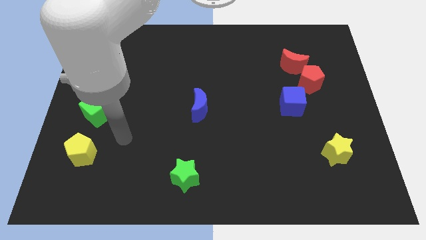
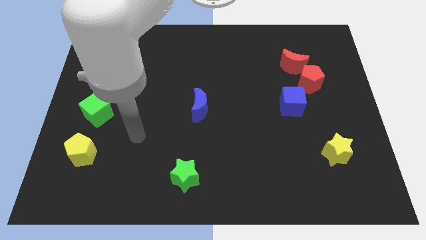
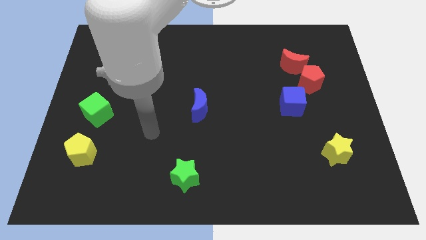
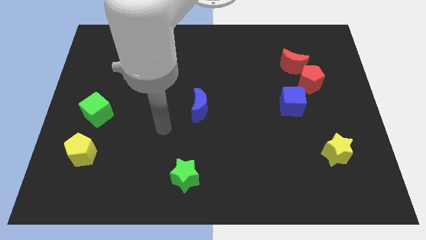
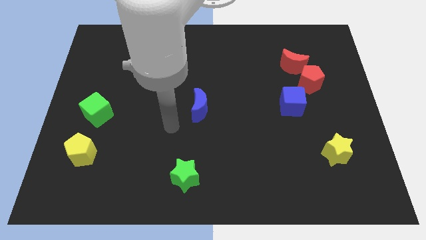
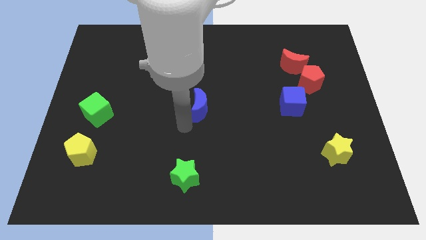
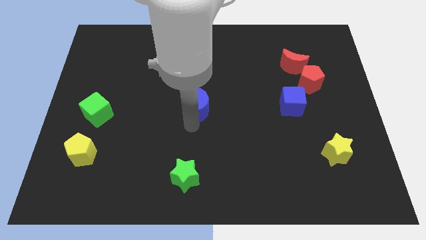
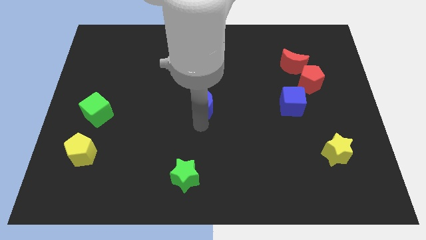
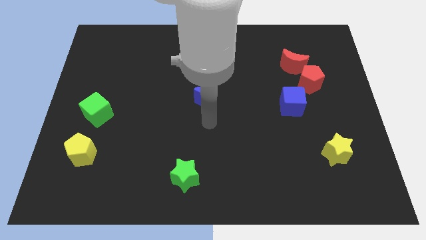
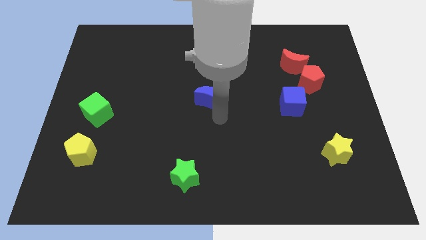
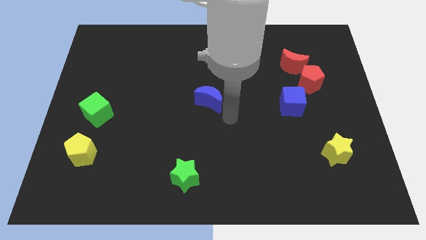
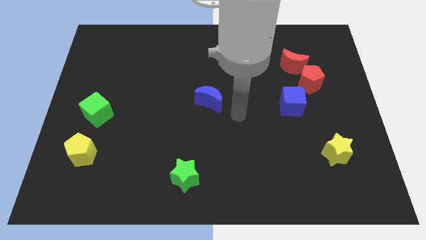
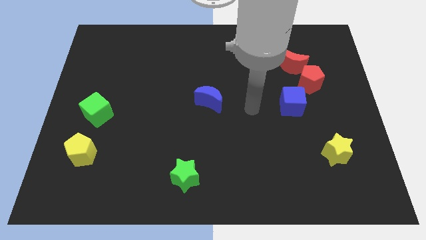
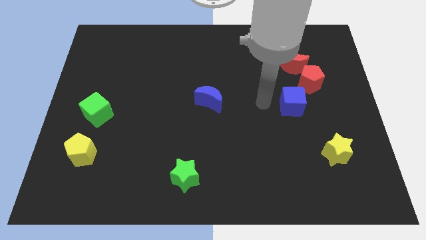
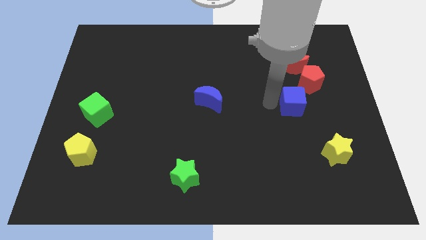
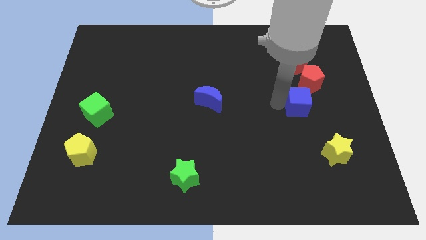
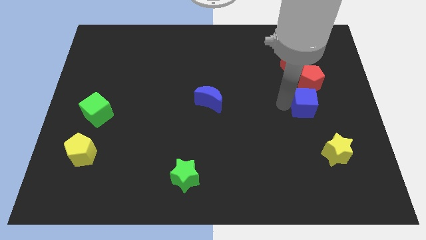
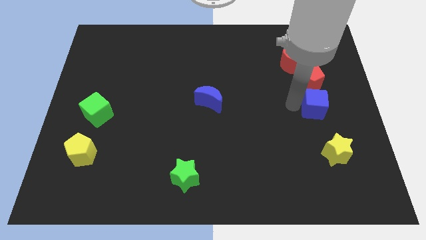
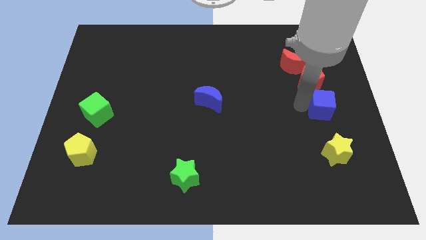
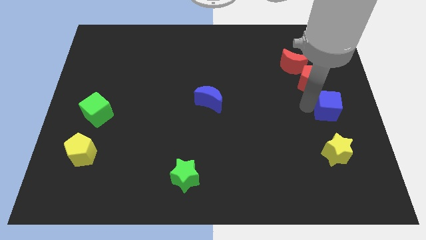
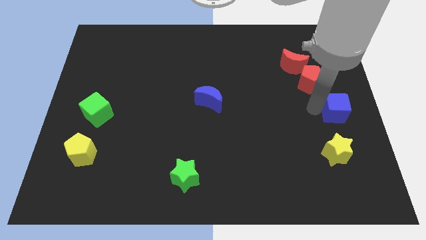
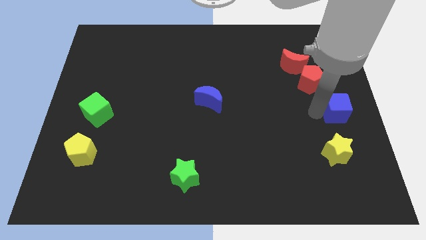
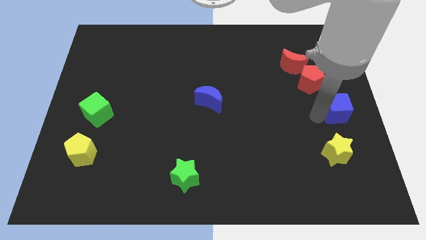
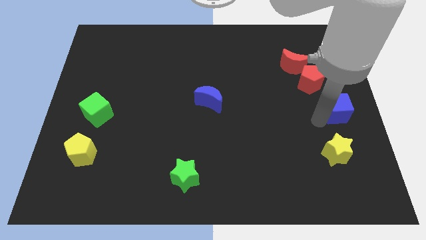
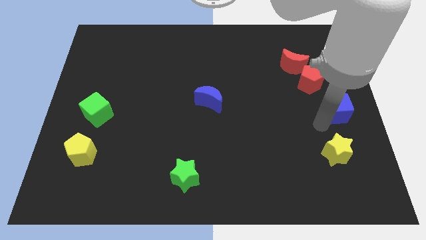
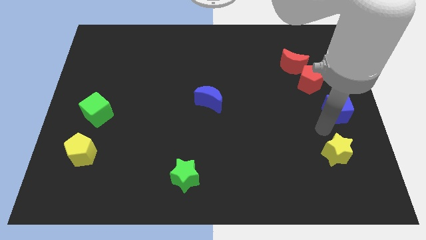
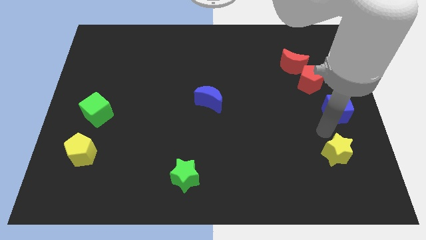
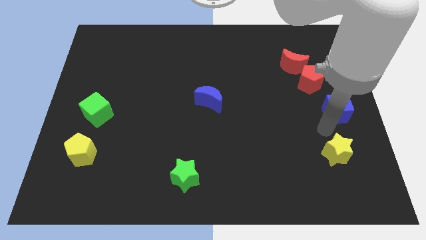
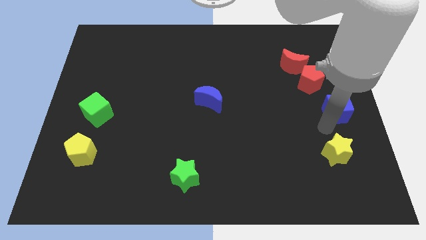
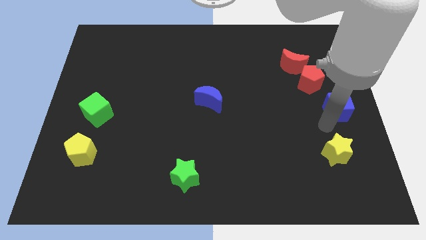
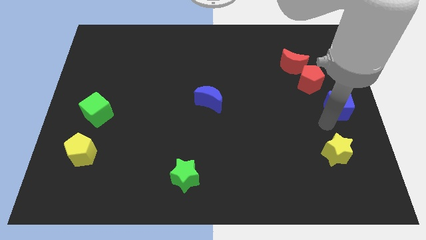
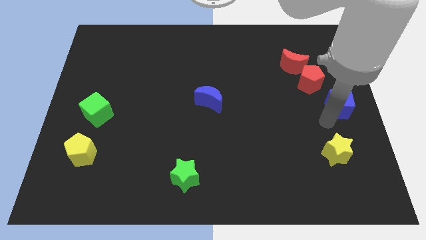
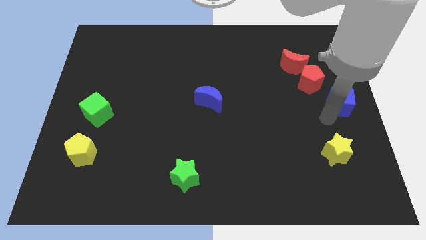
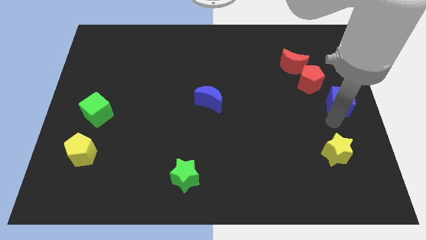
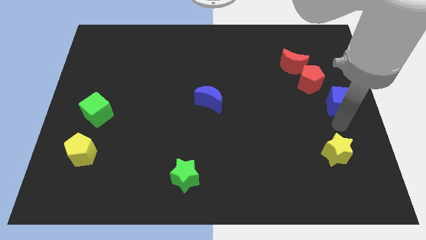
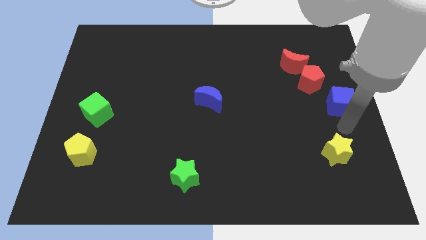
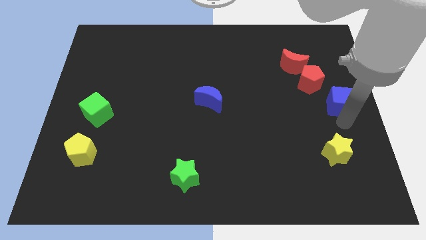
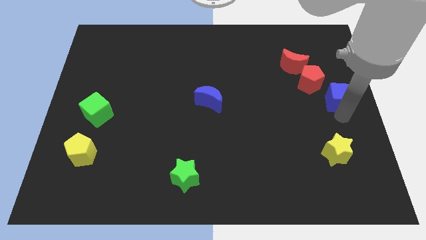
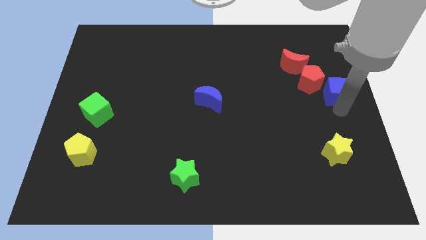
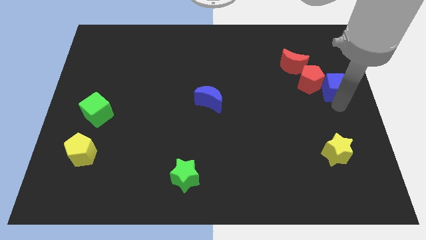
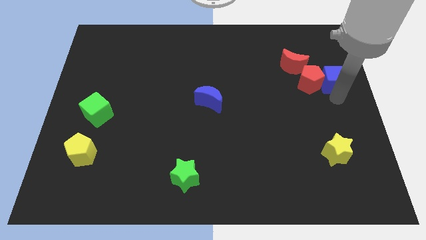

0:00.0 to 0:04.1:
put the blue cube diagonally up and to the right of the red pentagon

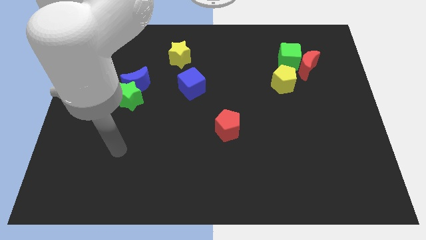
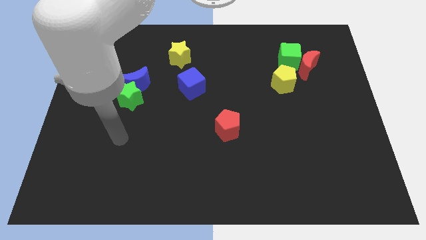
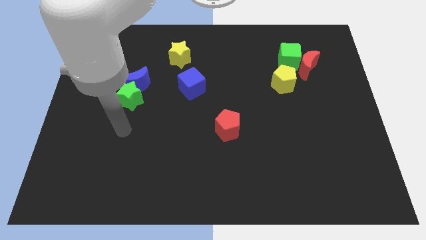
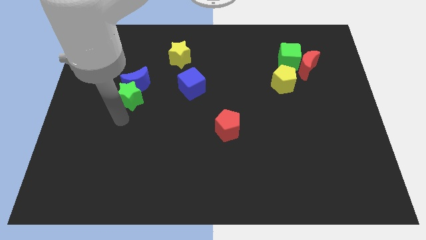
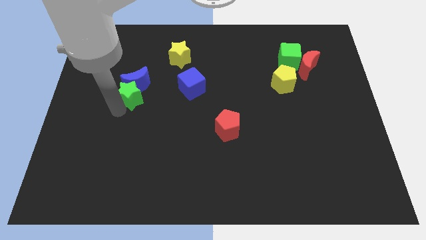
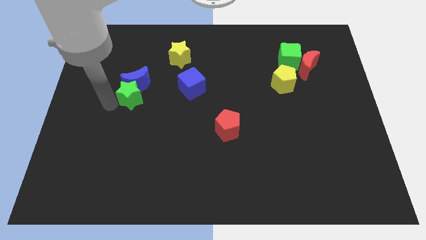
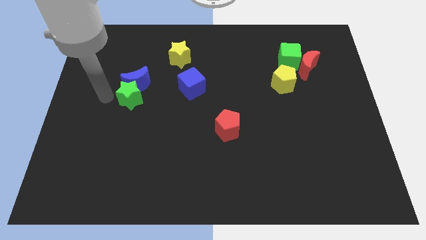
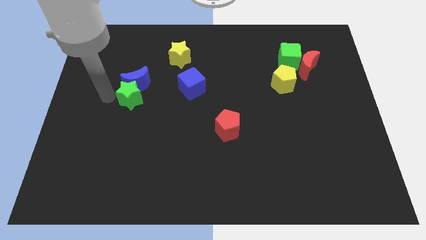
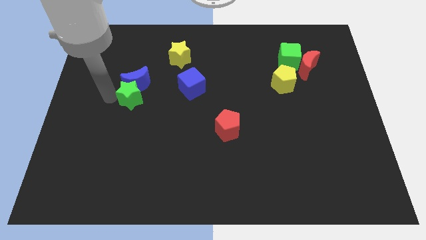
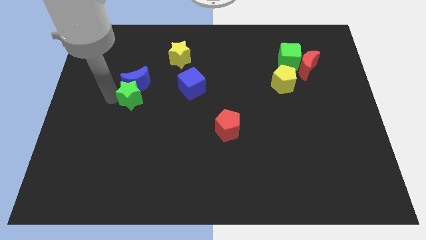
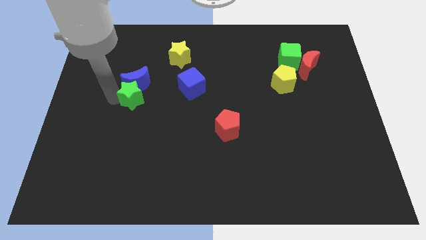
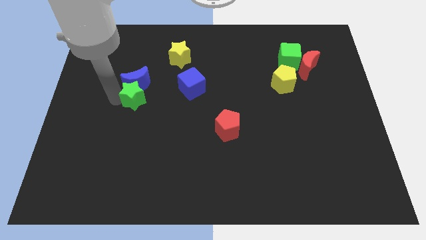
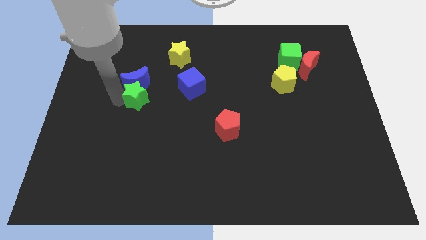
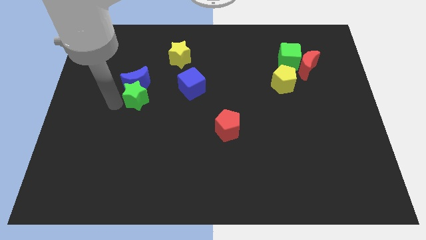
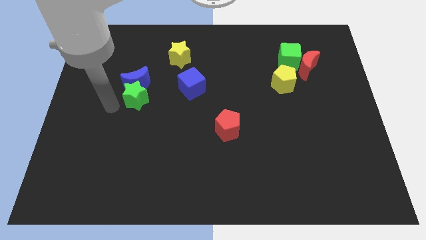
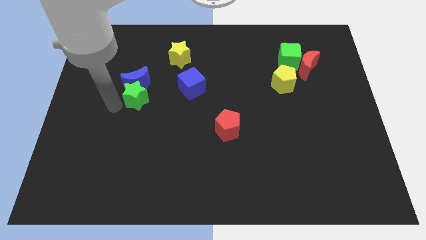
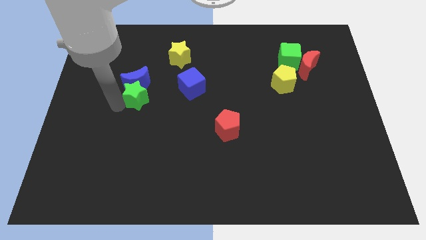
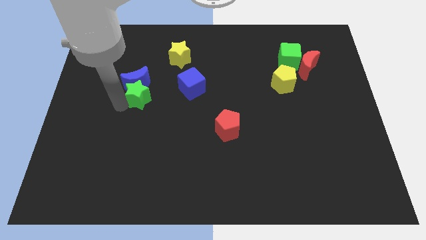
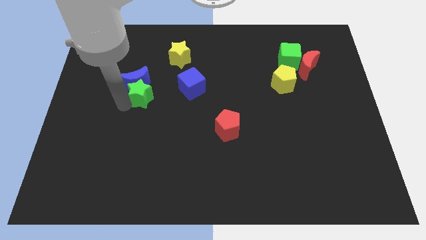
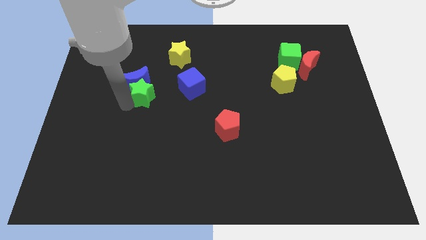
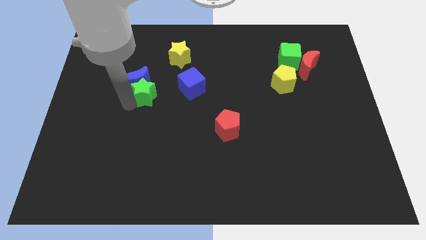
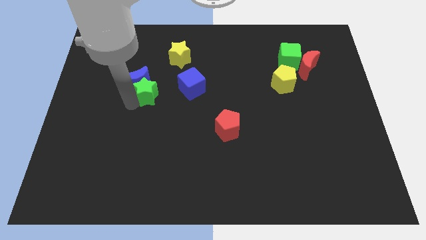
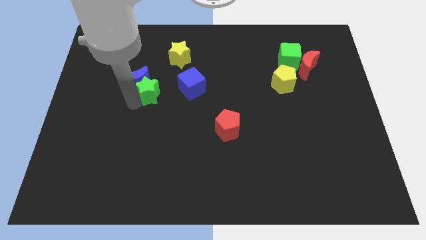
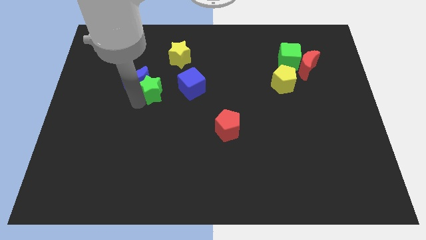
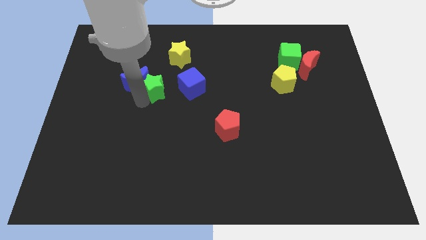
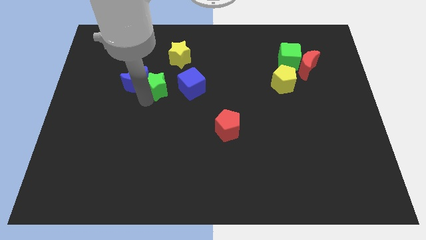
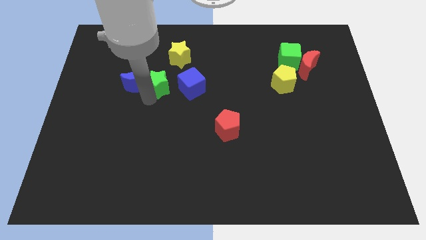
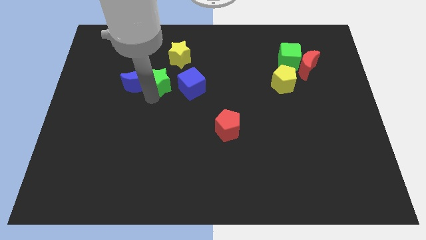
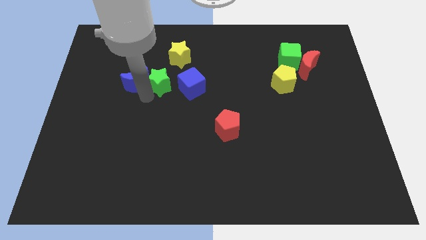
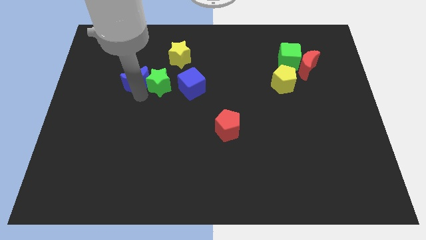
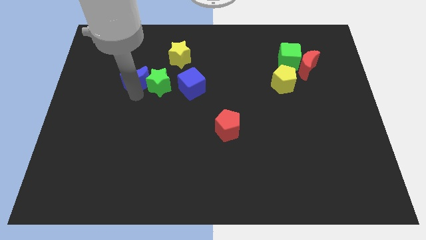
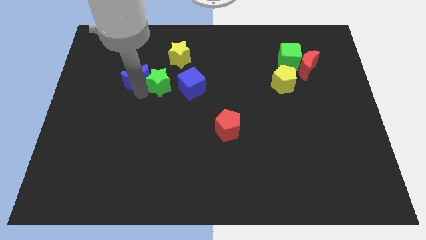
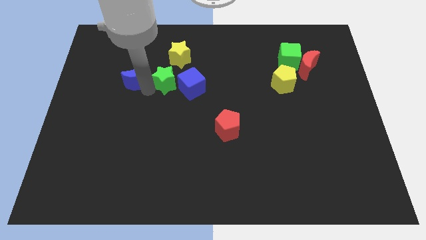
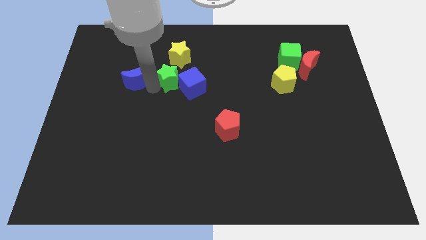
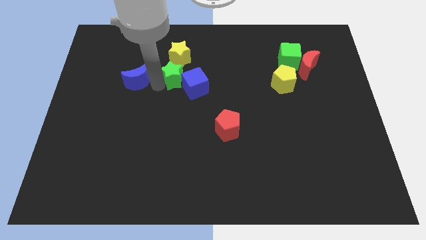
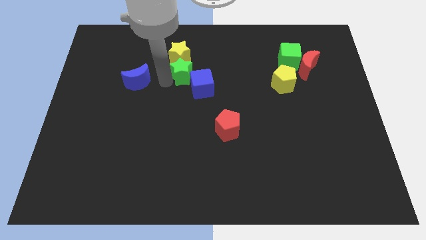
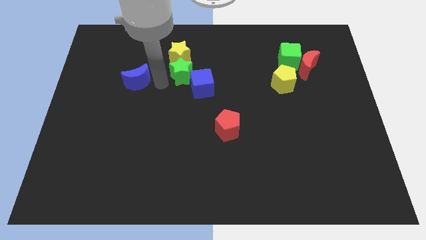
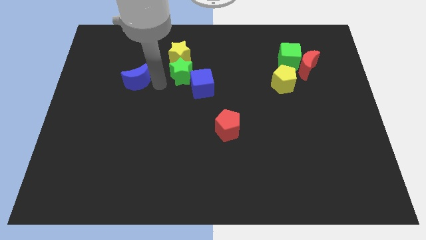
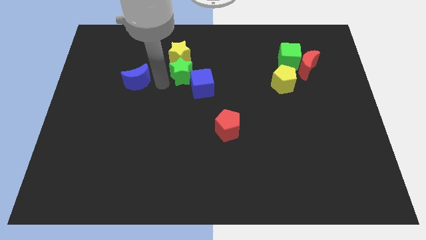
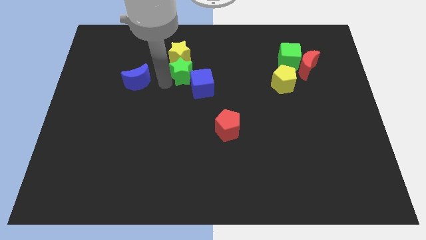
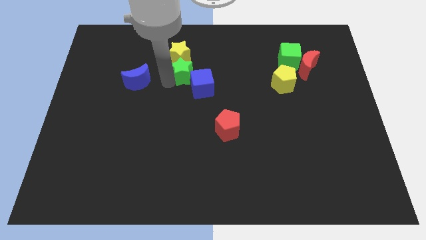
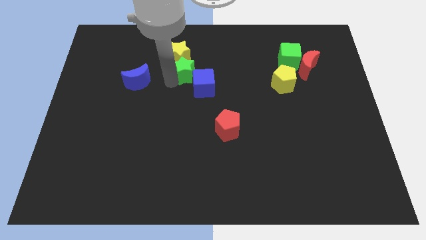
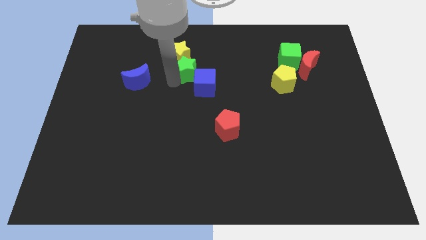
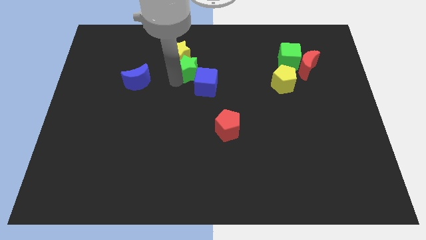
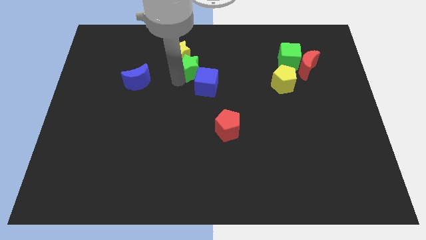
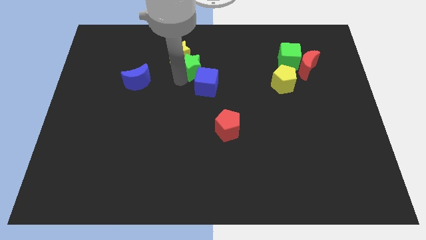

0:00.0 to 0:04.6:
move the green star to the right of the yellow star
